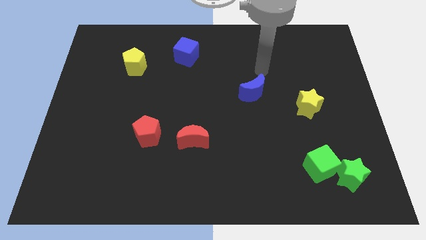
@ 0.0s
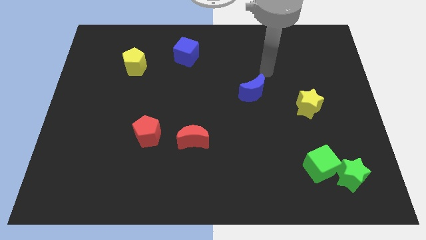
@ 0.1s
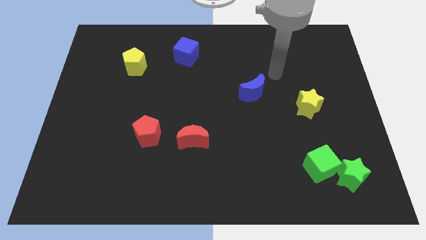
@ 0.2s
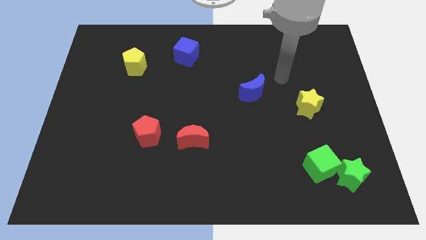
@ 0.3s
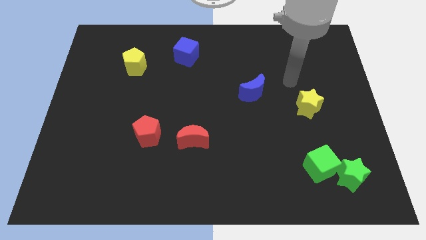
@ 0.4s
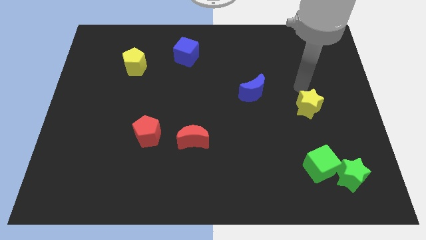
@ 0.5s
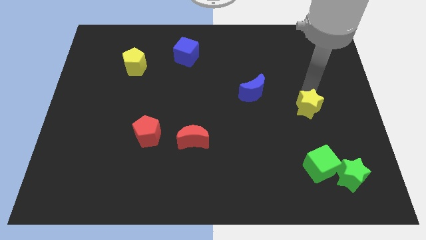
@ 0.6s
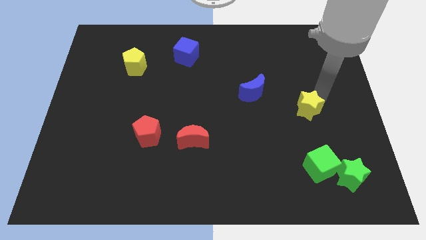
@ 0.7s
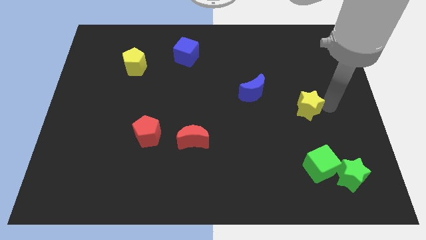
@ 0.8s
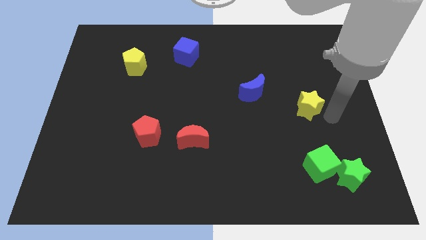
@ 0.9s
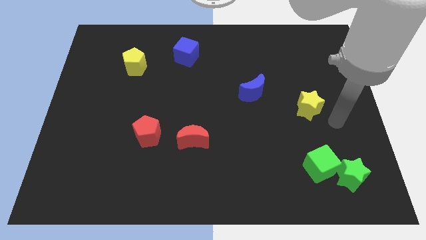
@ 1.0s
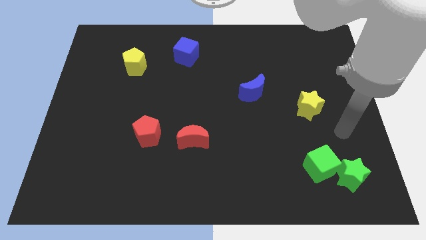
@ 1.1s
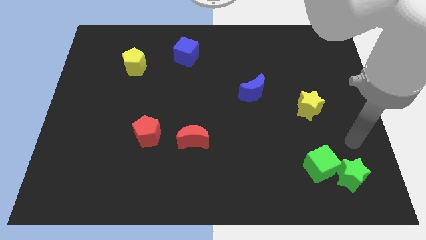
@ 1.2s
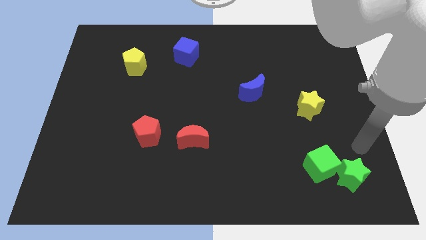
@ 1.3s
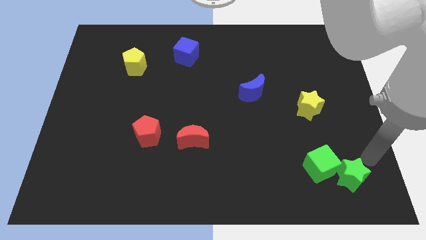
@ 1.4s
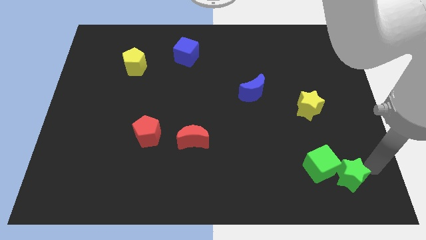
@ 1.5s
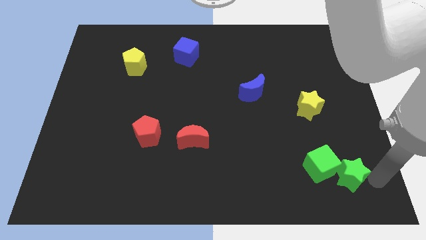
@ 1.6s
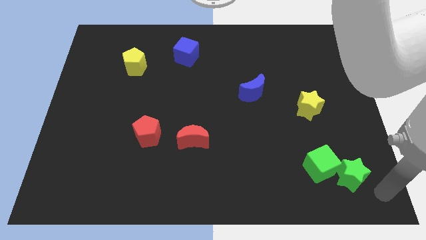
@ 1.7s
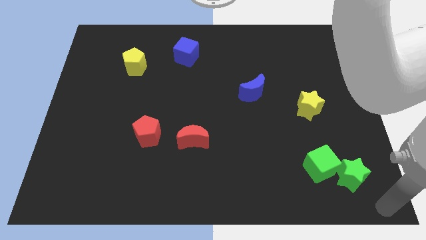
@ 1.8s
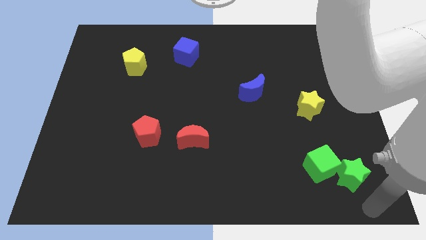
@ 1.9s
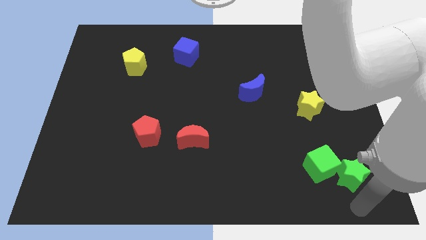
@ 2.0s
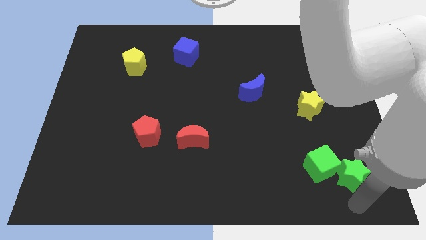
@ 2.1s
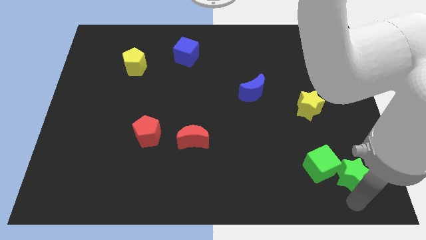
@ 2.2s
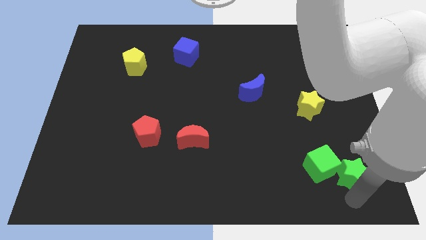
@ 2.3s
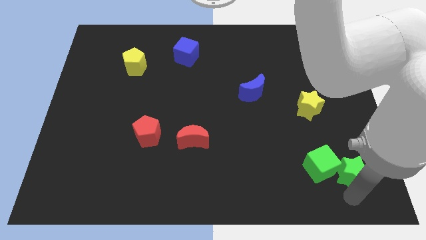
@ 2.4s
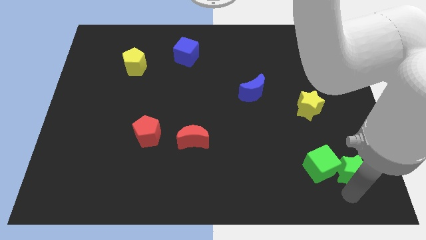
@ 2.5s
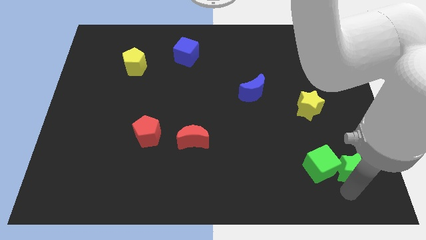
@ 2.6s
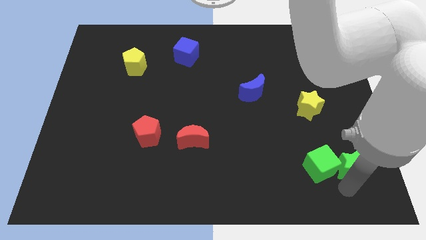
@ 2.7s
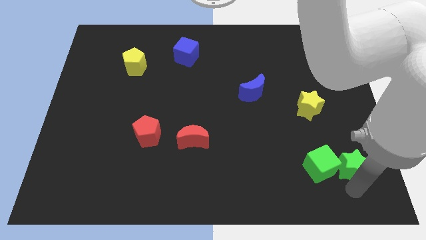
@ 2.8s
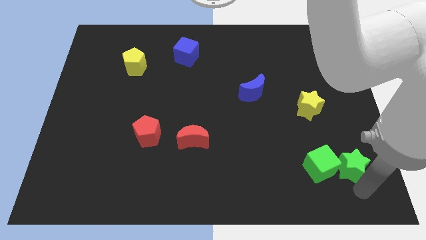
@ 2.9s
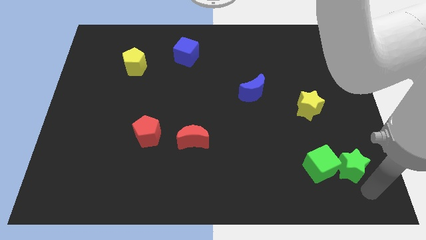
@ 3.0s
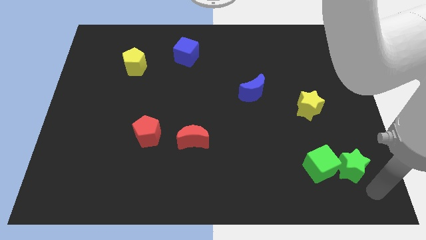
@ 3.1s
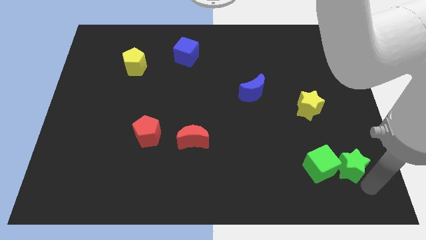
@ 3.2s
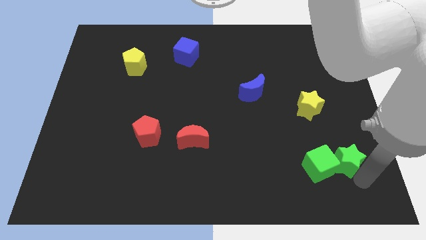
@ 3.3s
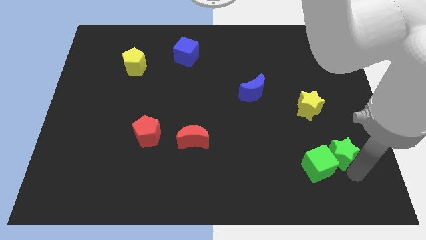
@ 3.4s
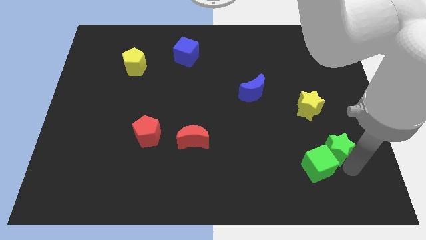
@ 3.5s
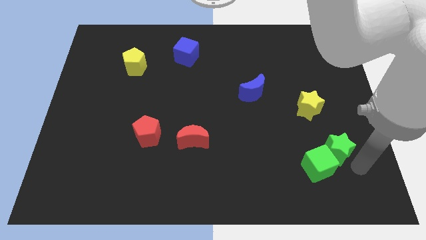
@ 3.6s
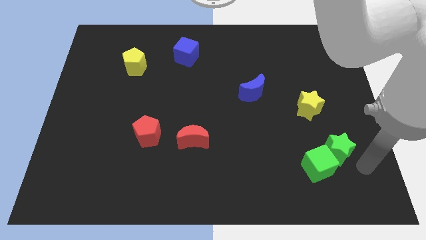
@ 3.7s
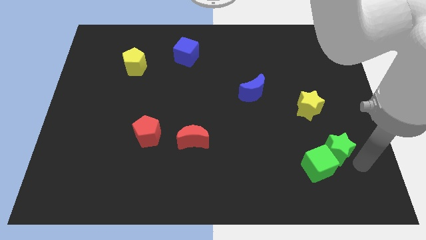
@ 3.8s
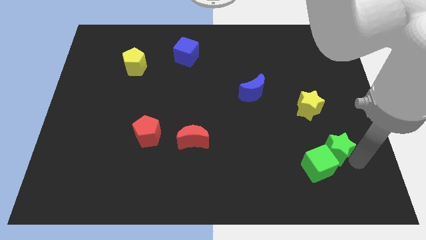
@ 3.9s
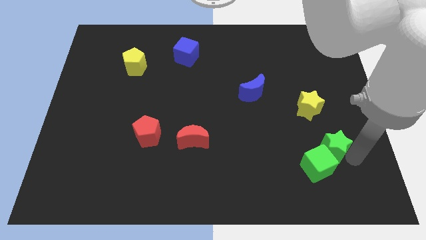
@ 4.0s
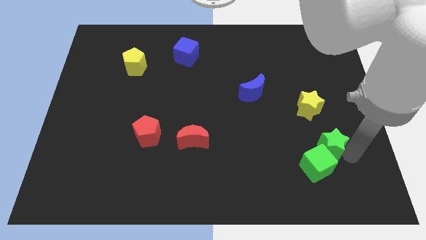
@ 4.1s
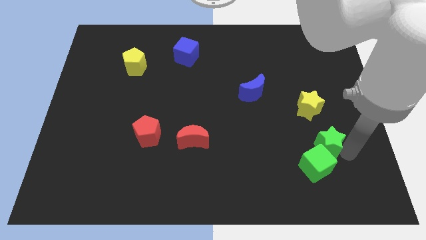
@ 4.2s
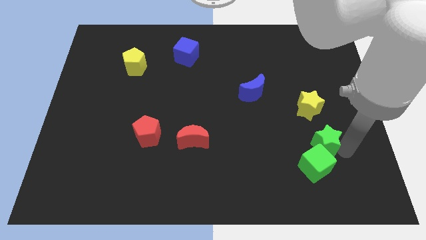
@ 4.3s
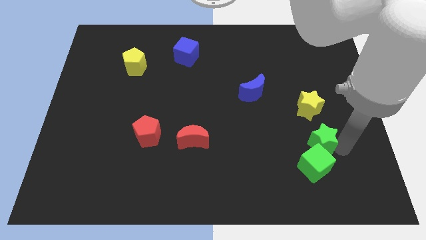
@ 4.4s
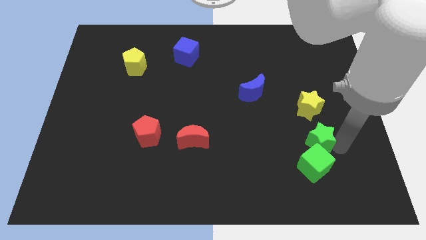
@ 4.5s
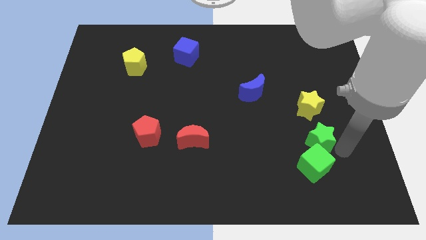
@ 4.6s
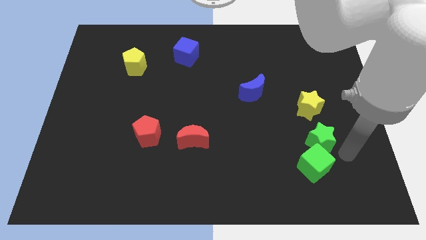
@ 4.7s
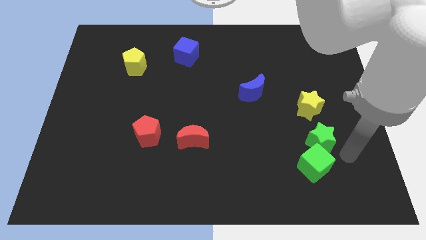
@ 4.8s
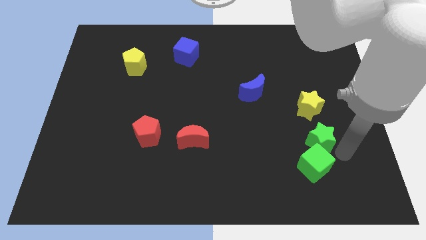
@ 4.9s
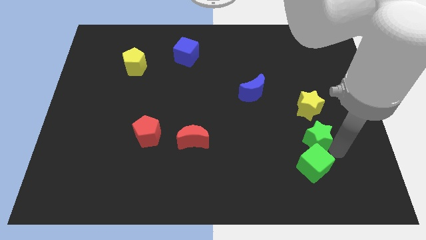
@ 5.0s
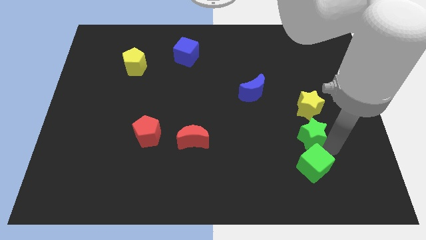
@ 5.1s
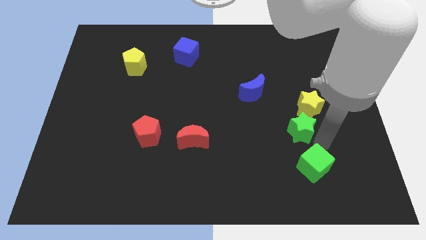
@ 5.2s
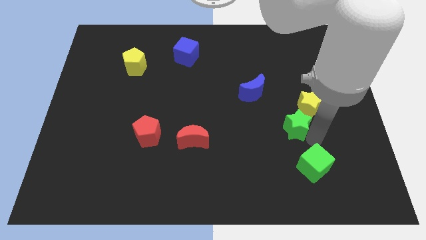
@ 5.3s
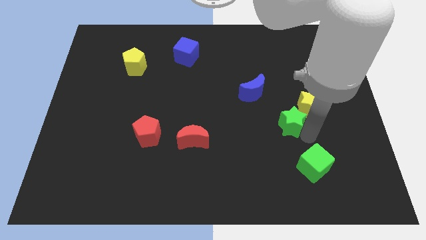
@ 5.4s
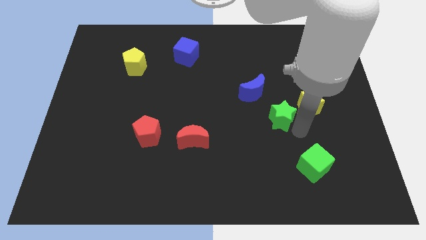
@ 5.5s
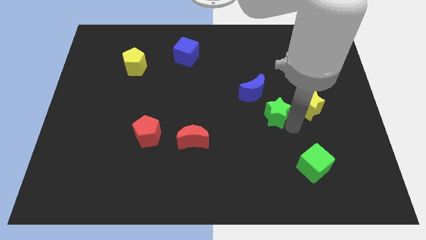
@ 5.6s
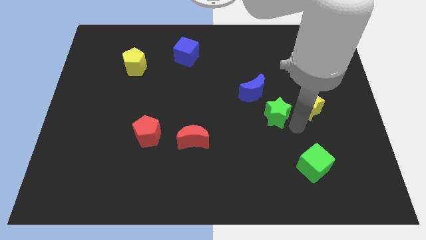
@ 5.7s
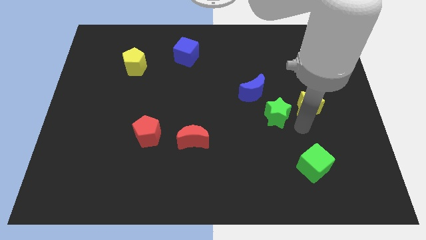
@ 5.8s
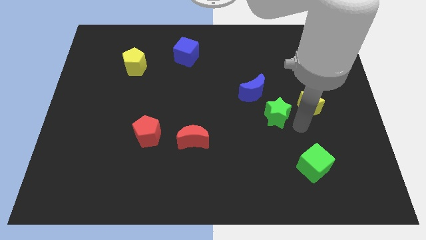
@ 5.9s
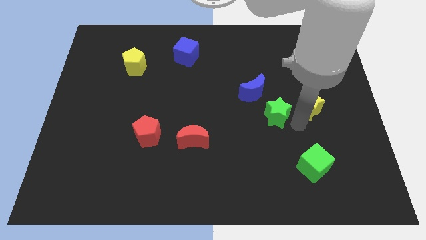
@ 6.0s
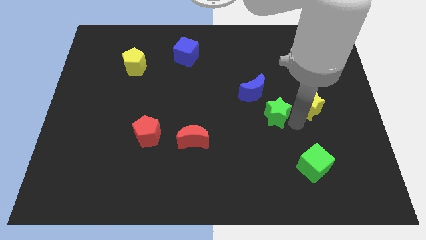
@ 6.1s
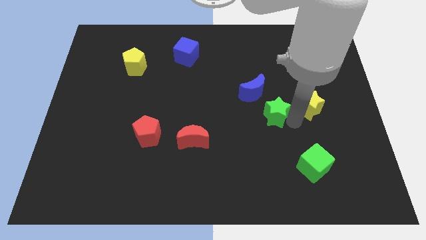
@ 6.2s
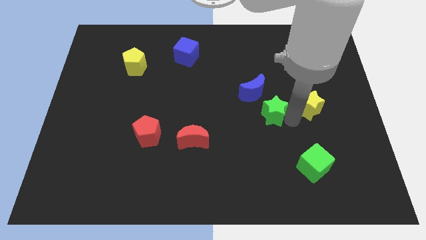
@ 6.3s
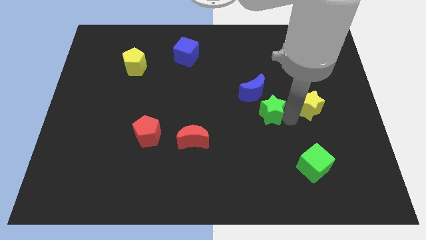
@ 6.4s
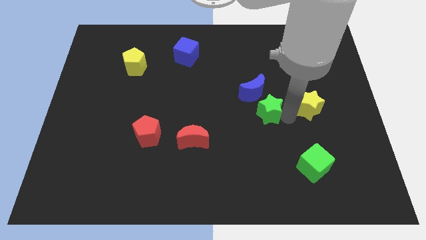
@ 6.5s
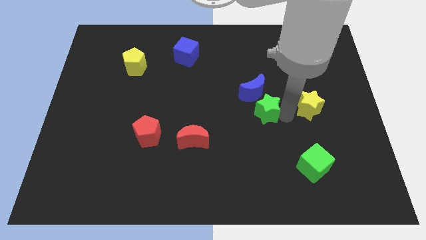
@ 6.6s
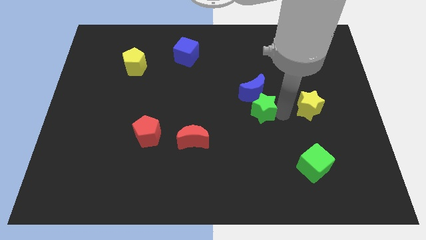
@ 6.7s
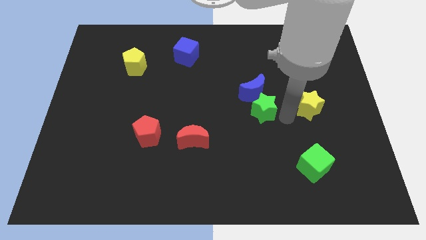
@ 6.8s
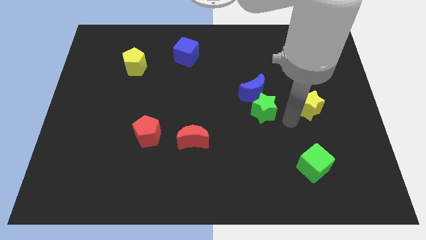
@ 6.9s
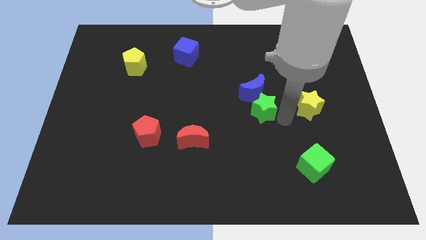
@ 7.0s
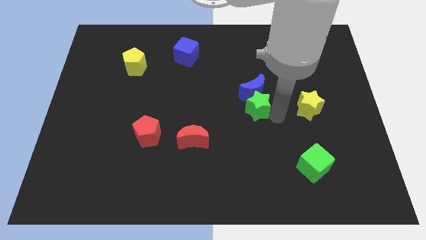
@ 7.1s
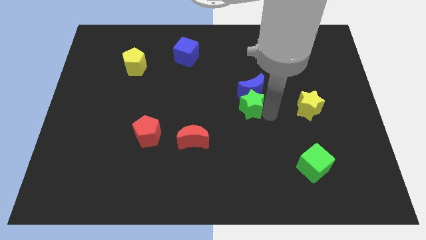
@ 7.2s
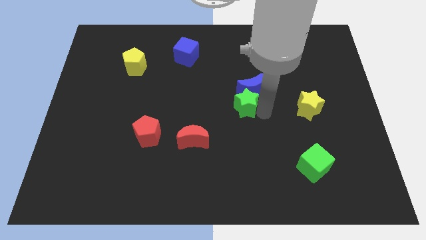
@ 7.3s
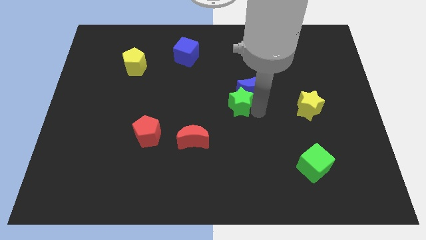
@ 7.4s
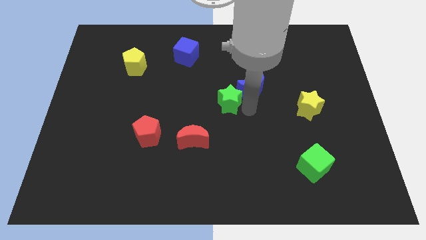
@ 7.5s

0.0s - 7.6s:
move the green star to the left side of the blue moon
